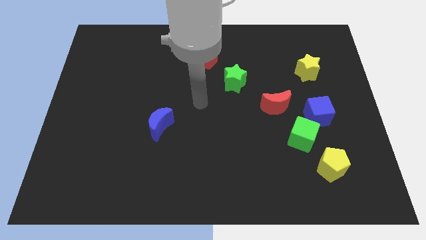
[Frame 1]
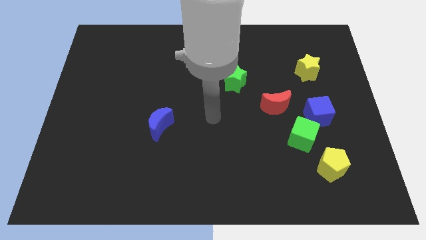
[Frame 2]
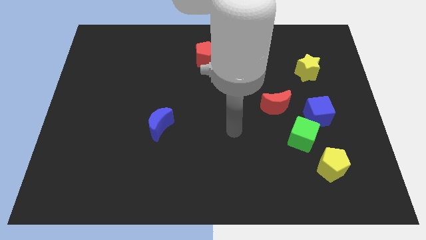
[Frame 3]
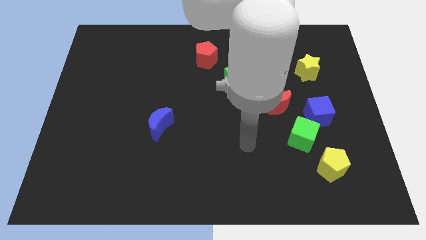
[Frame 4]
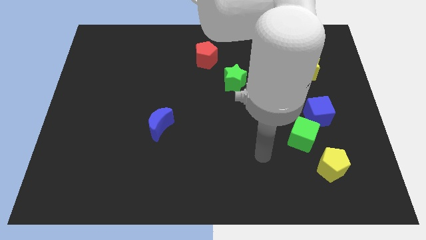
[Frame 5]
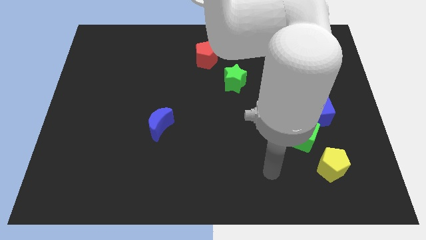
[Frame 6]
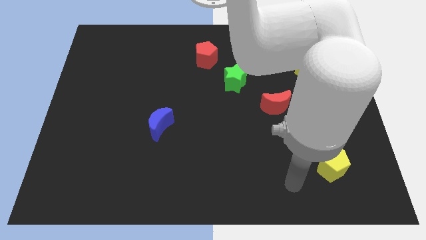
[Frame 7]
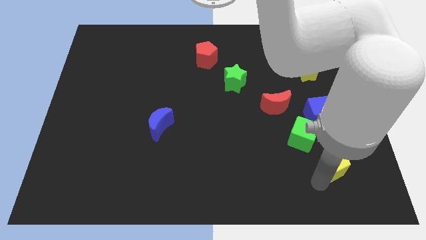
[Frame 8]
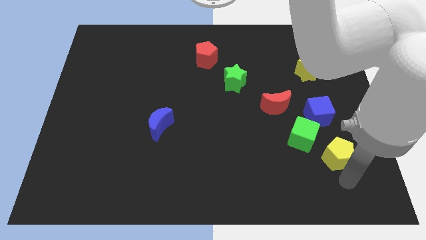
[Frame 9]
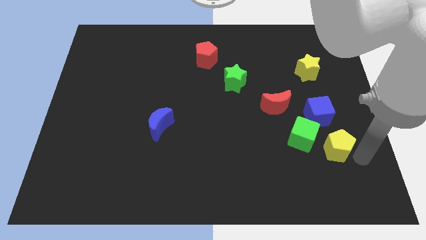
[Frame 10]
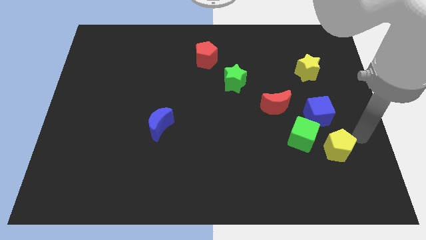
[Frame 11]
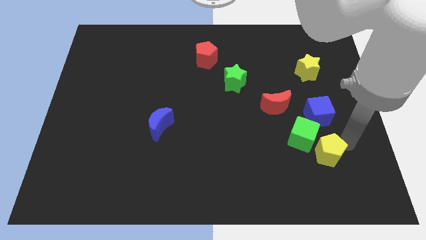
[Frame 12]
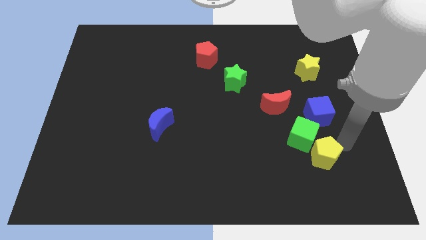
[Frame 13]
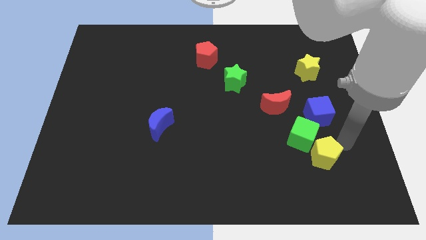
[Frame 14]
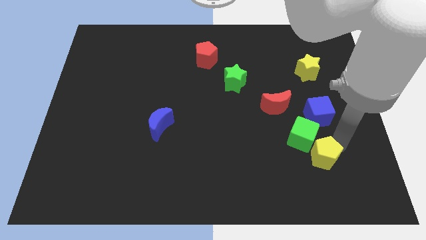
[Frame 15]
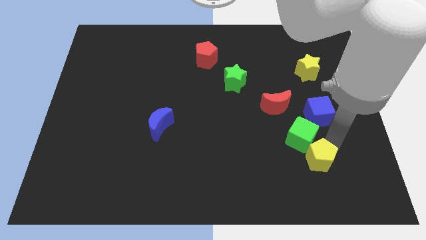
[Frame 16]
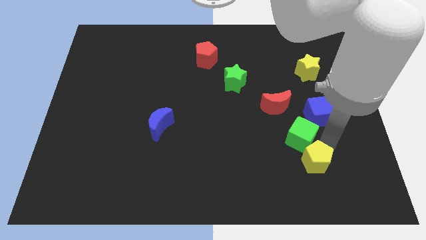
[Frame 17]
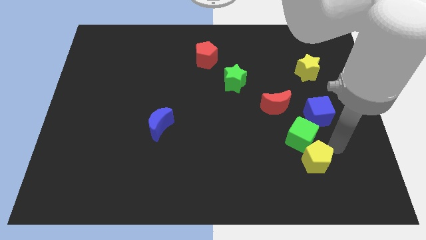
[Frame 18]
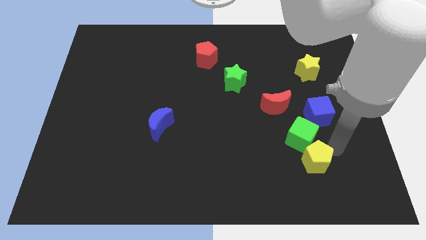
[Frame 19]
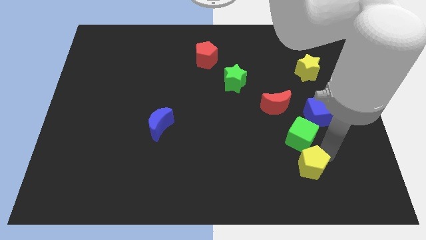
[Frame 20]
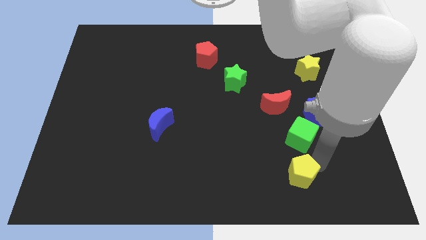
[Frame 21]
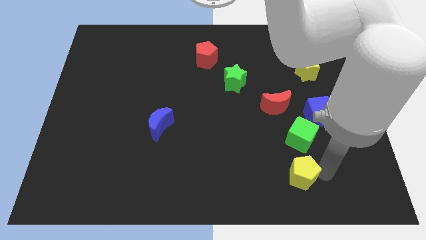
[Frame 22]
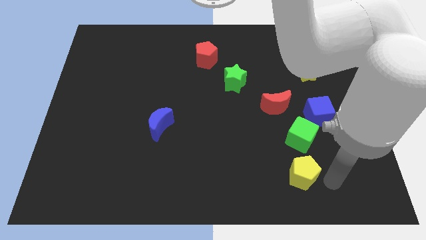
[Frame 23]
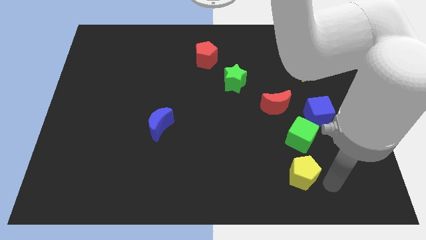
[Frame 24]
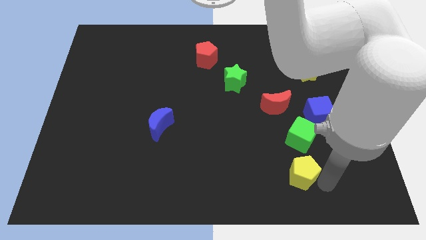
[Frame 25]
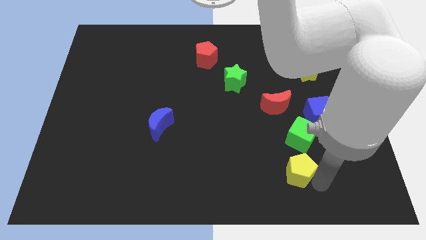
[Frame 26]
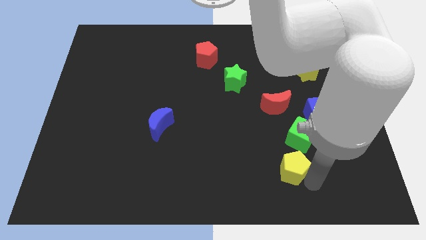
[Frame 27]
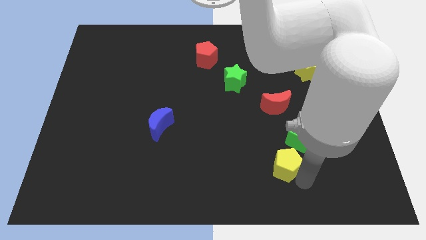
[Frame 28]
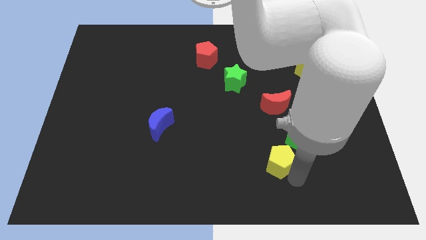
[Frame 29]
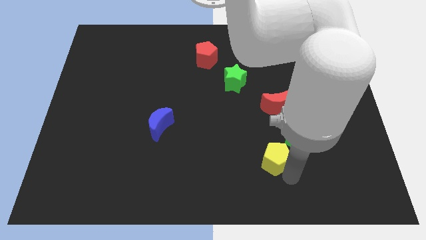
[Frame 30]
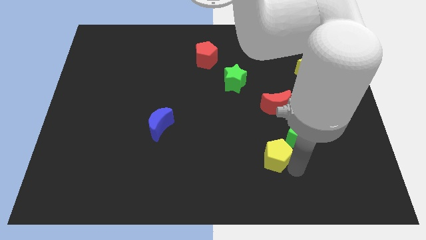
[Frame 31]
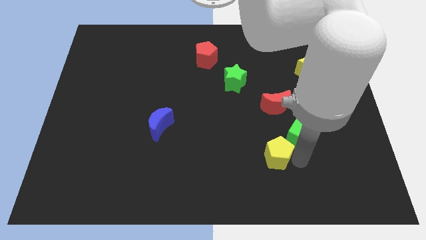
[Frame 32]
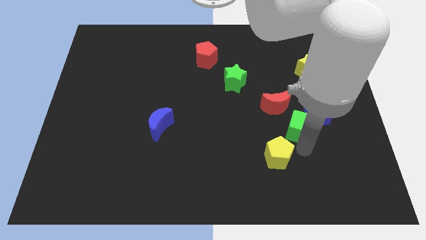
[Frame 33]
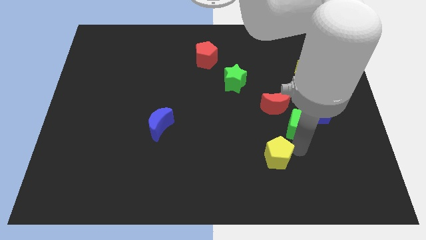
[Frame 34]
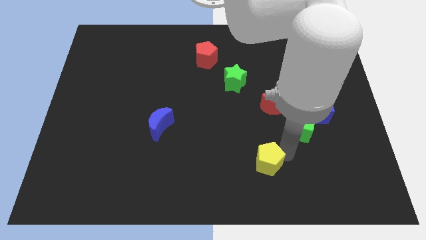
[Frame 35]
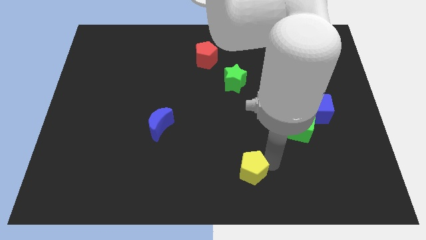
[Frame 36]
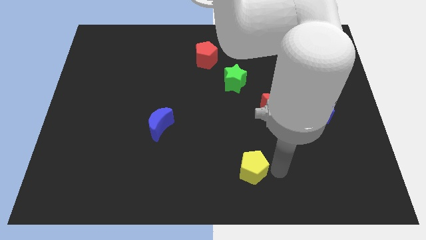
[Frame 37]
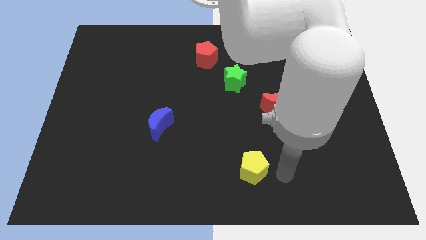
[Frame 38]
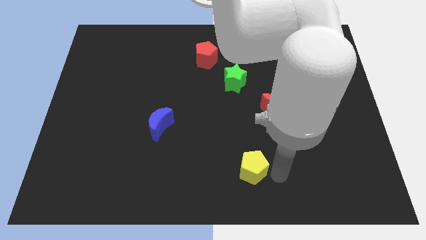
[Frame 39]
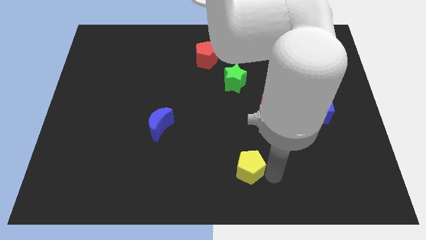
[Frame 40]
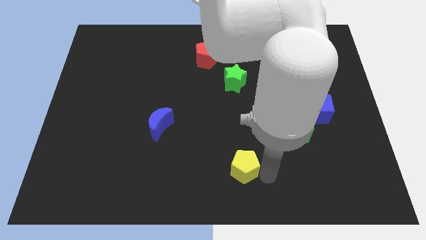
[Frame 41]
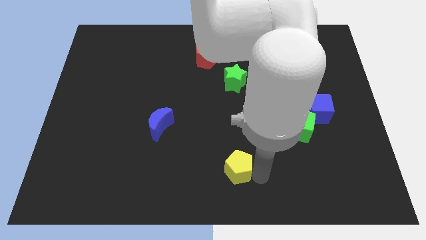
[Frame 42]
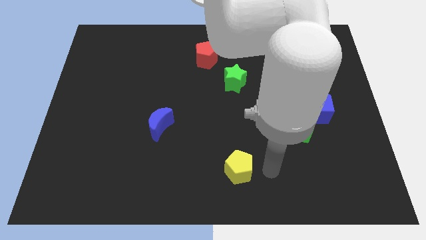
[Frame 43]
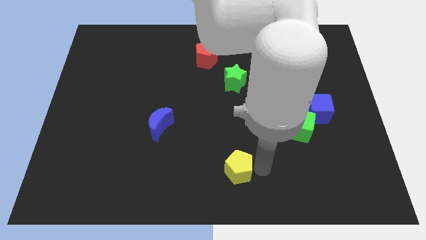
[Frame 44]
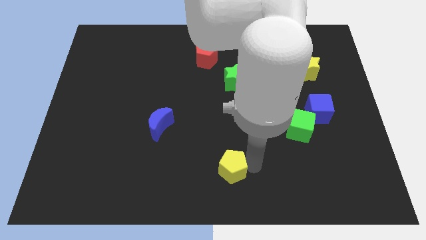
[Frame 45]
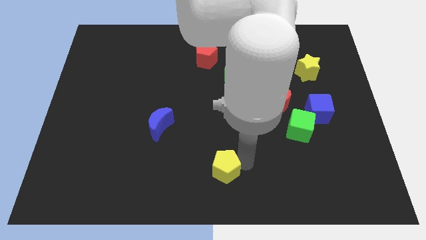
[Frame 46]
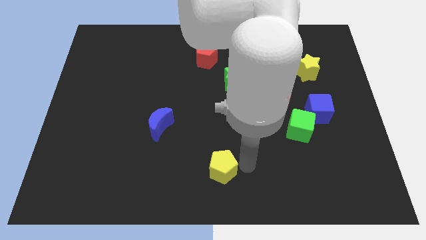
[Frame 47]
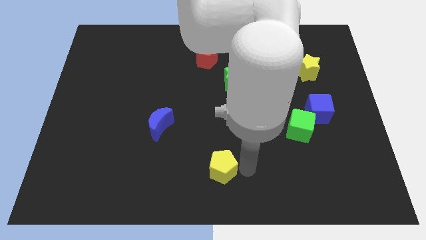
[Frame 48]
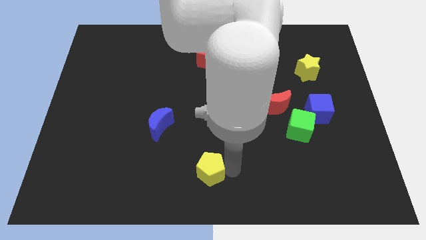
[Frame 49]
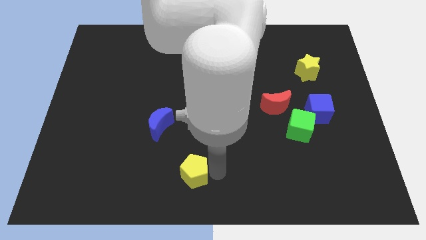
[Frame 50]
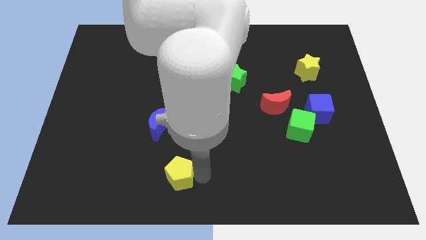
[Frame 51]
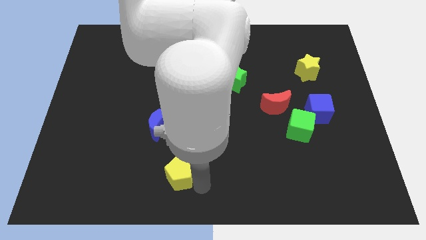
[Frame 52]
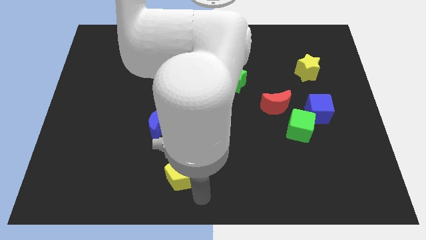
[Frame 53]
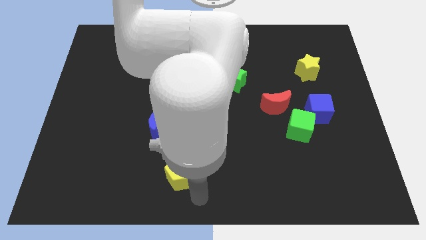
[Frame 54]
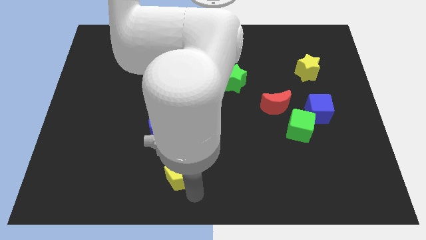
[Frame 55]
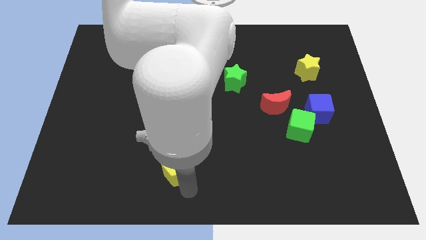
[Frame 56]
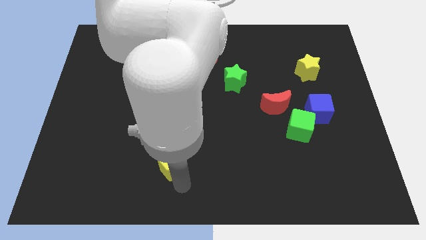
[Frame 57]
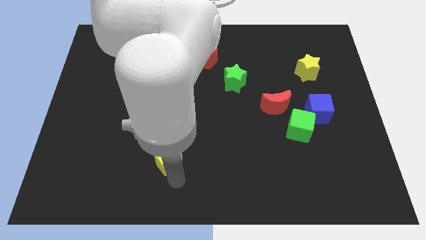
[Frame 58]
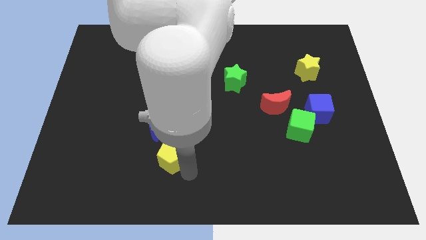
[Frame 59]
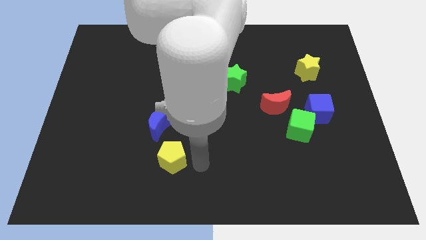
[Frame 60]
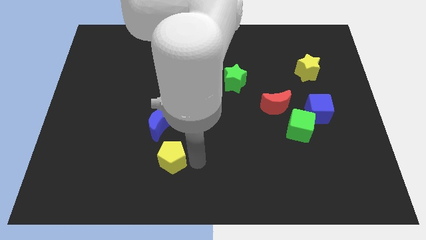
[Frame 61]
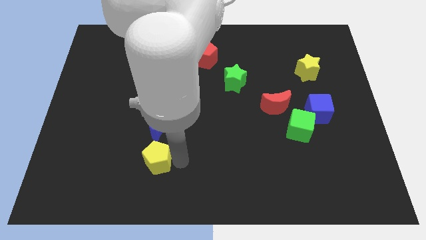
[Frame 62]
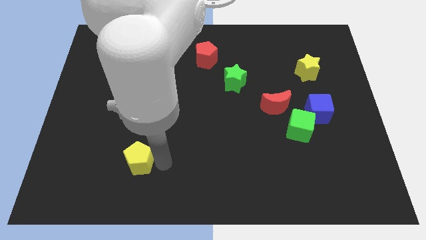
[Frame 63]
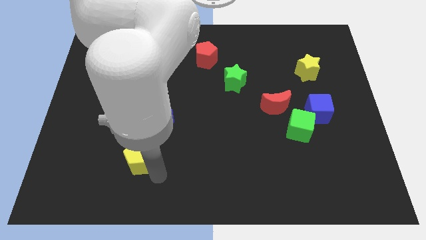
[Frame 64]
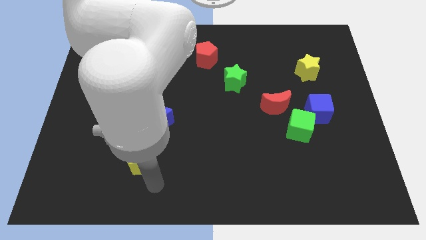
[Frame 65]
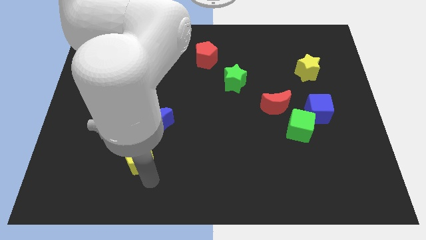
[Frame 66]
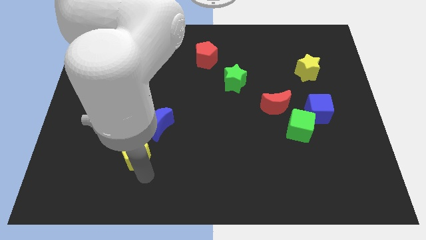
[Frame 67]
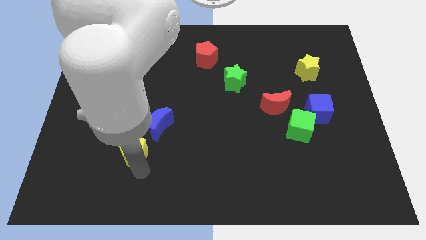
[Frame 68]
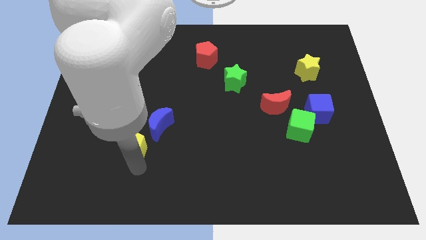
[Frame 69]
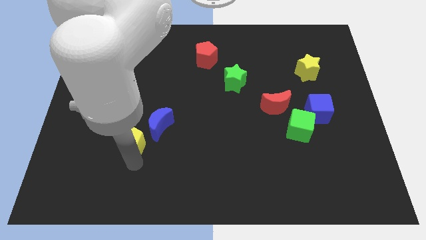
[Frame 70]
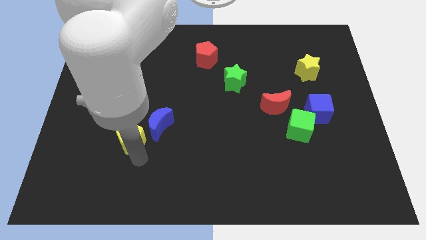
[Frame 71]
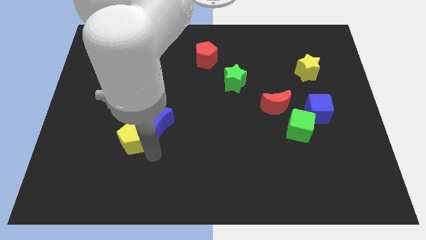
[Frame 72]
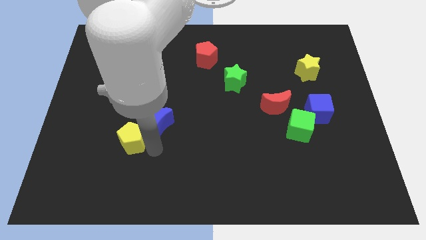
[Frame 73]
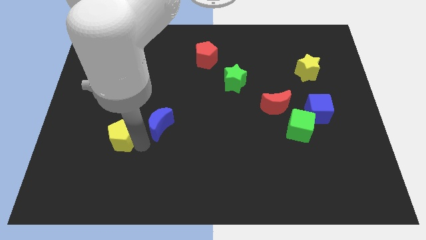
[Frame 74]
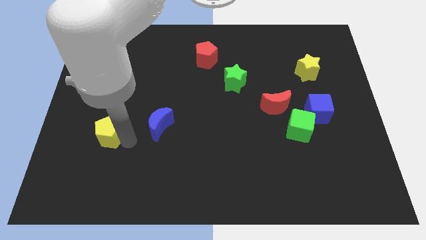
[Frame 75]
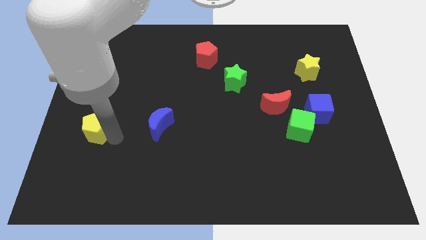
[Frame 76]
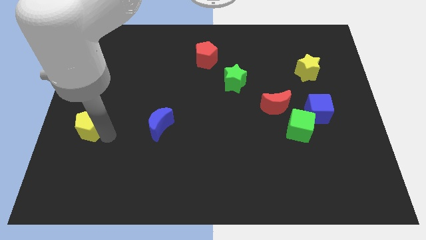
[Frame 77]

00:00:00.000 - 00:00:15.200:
push the yellow pentagon to the left side
